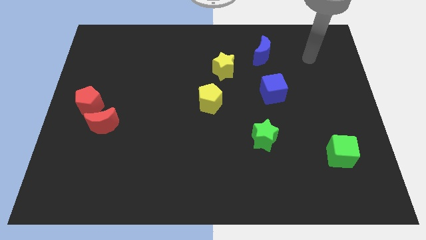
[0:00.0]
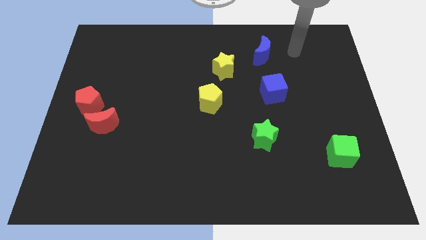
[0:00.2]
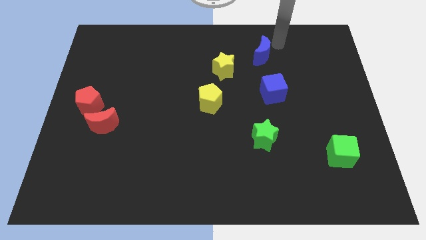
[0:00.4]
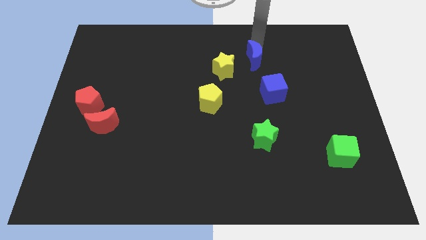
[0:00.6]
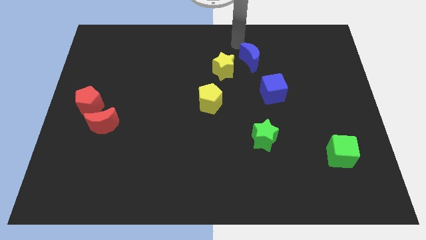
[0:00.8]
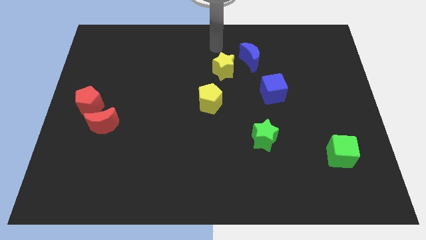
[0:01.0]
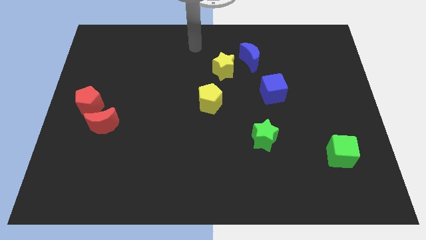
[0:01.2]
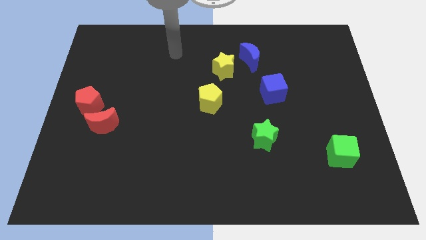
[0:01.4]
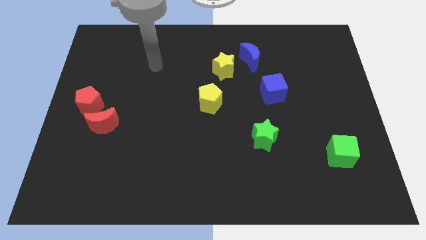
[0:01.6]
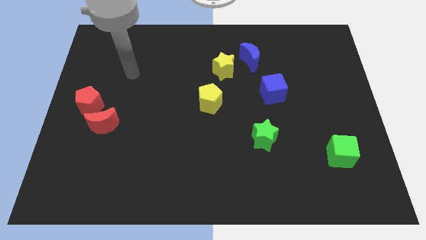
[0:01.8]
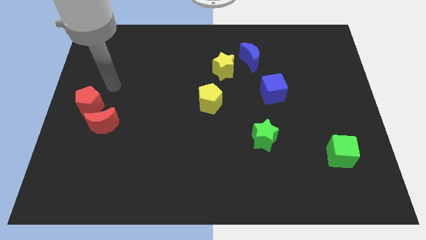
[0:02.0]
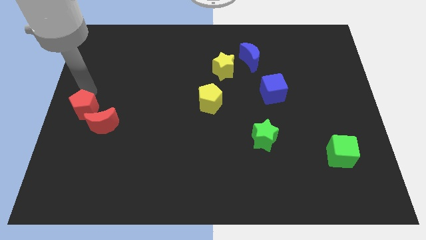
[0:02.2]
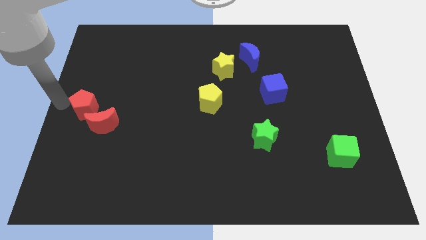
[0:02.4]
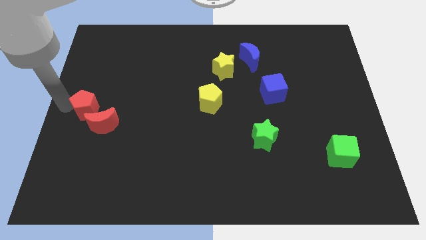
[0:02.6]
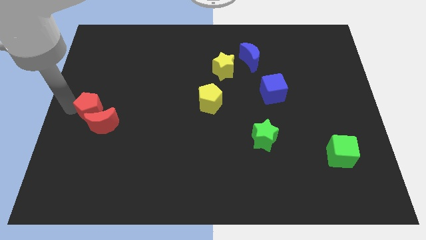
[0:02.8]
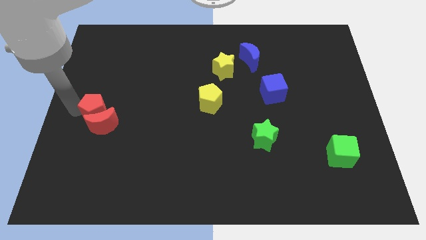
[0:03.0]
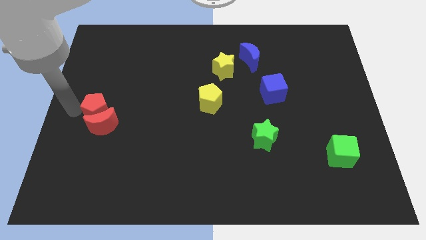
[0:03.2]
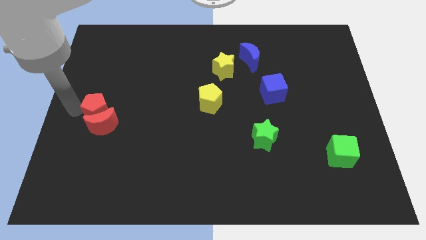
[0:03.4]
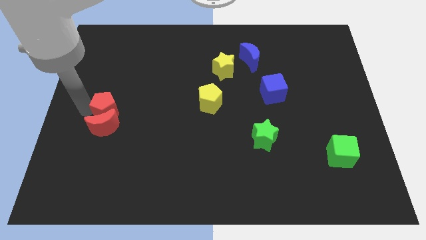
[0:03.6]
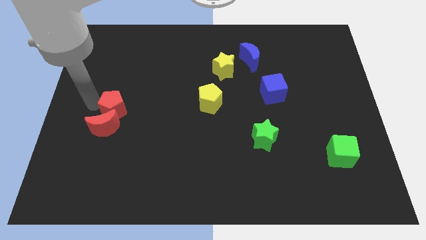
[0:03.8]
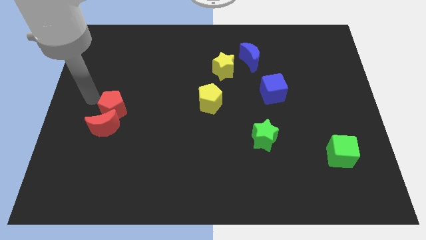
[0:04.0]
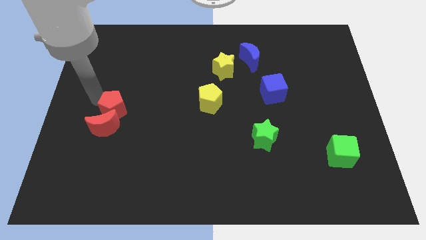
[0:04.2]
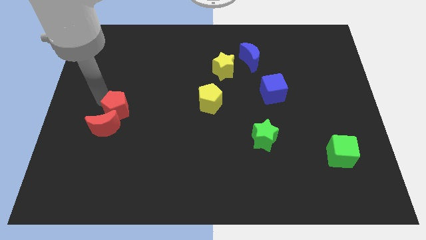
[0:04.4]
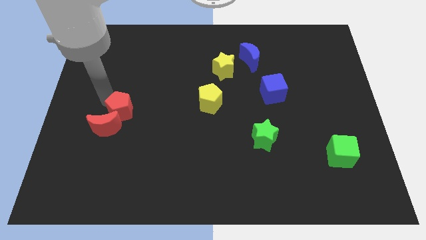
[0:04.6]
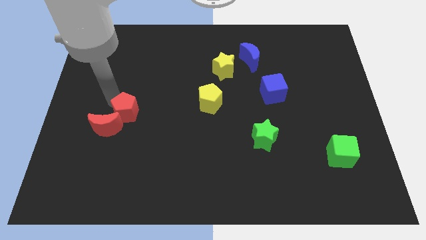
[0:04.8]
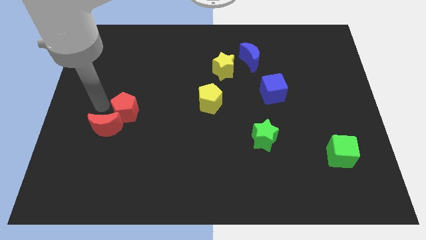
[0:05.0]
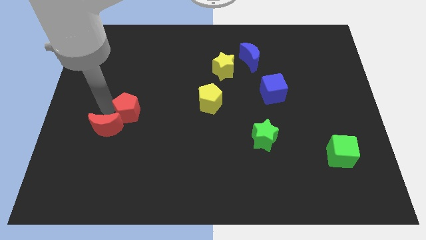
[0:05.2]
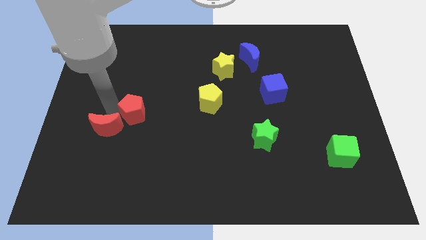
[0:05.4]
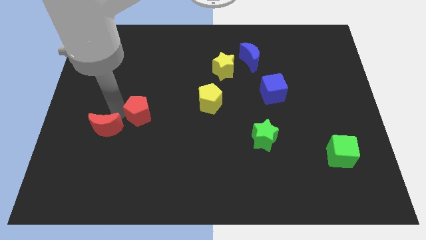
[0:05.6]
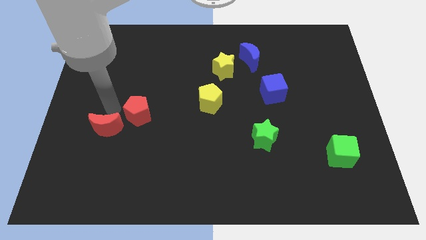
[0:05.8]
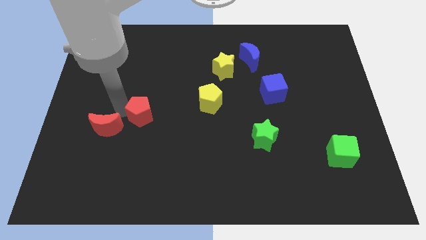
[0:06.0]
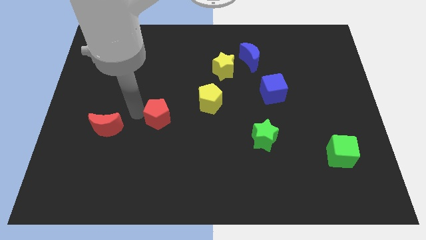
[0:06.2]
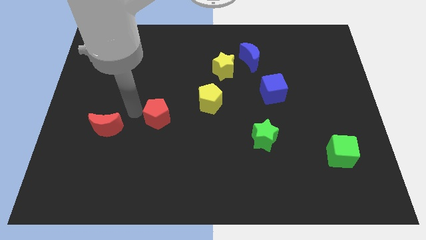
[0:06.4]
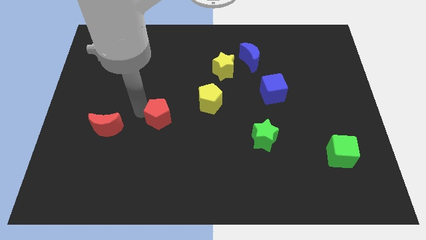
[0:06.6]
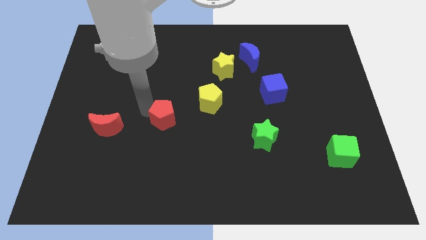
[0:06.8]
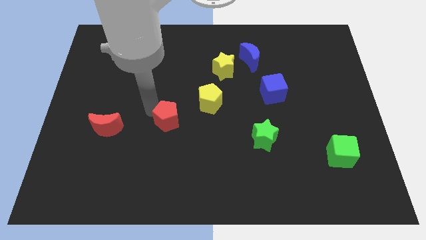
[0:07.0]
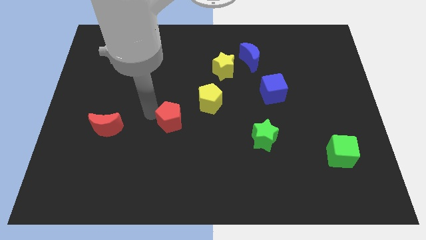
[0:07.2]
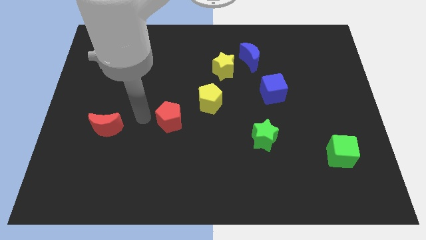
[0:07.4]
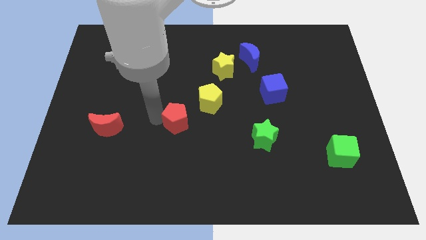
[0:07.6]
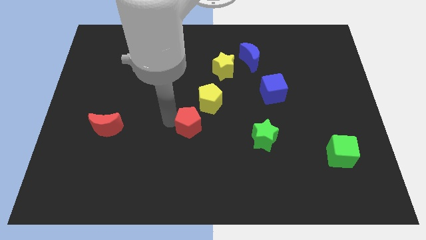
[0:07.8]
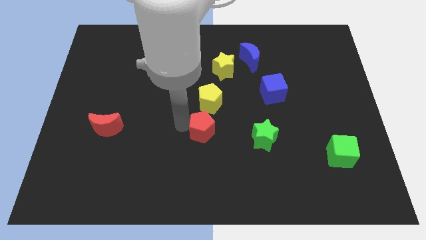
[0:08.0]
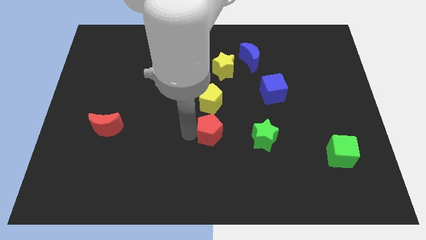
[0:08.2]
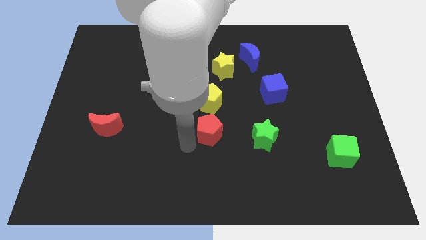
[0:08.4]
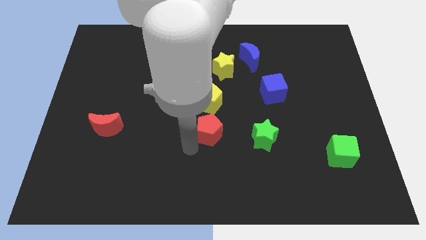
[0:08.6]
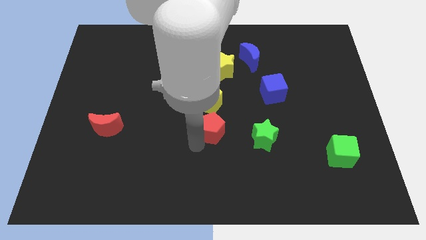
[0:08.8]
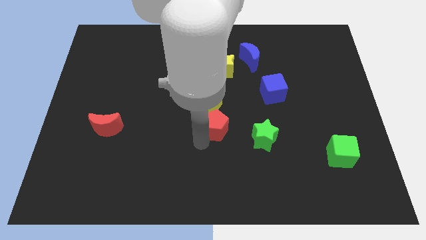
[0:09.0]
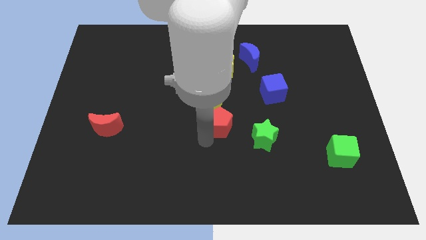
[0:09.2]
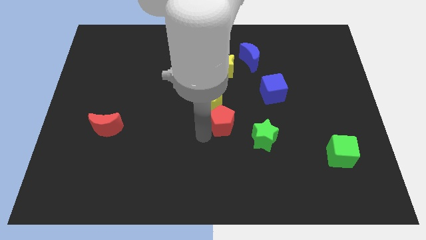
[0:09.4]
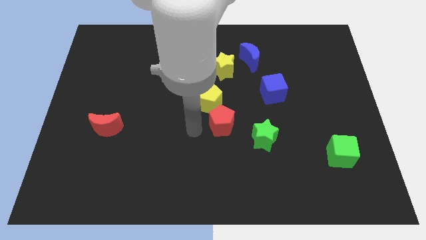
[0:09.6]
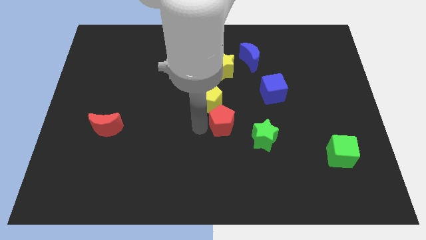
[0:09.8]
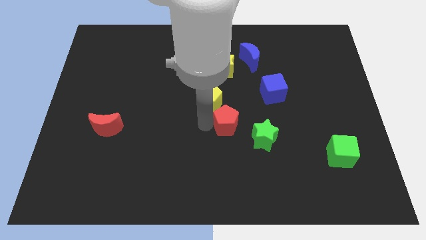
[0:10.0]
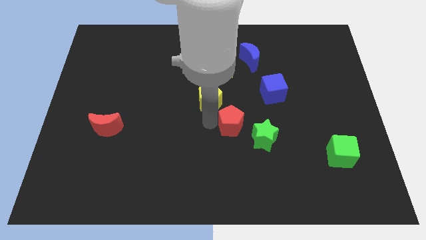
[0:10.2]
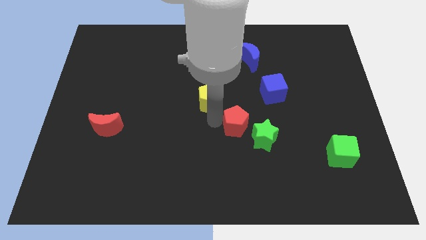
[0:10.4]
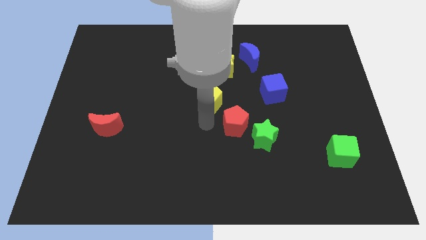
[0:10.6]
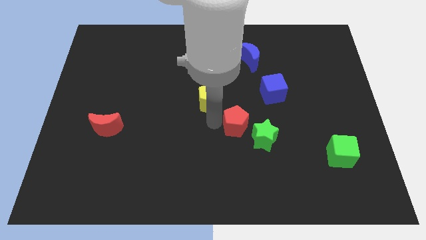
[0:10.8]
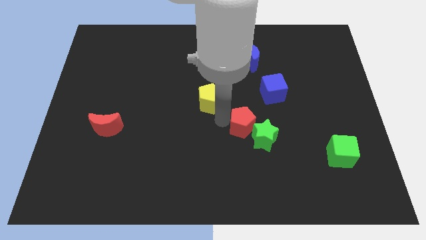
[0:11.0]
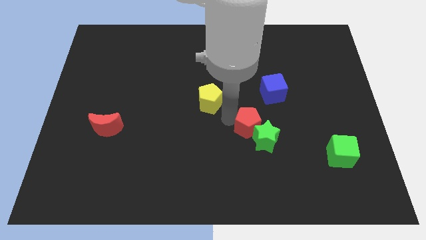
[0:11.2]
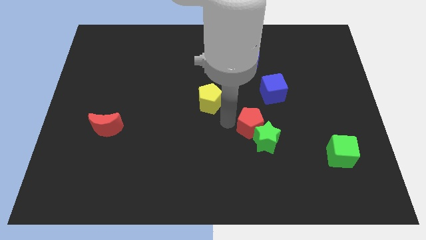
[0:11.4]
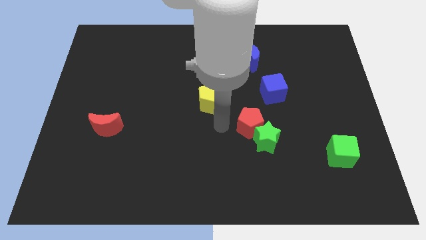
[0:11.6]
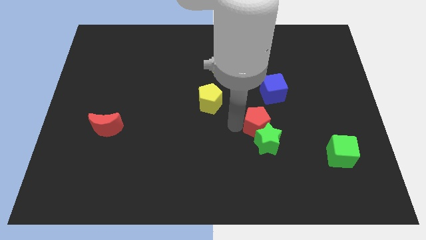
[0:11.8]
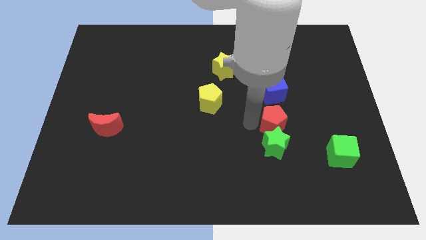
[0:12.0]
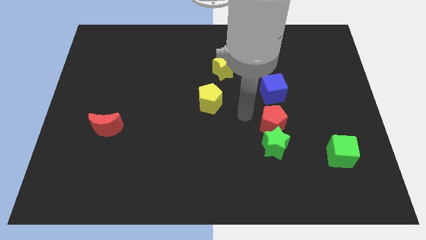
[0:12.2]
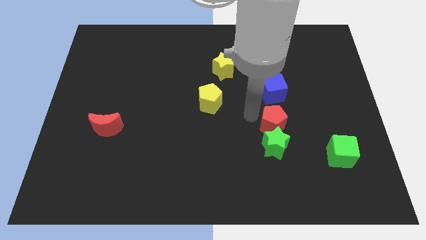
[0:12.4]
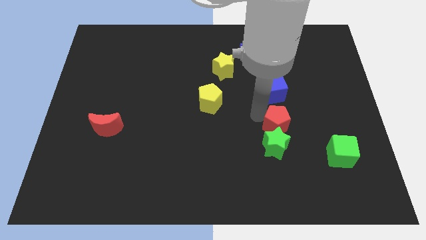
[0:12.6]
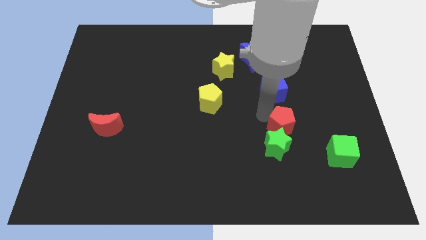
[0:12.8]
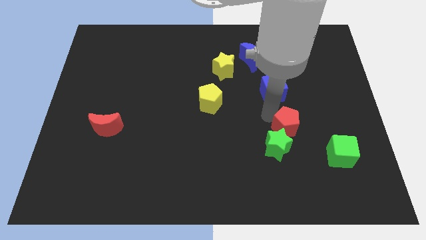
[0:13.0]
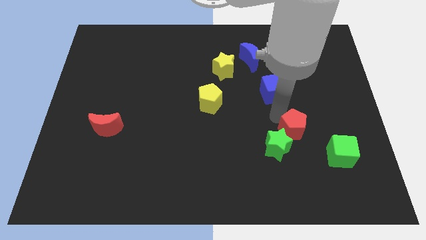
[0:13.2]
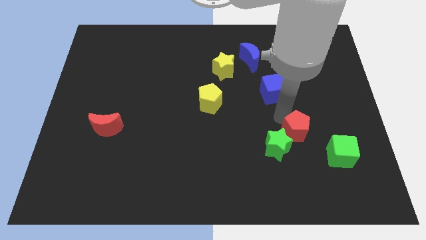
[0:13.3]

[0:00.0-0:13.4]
push the red pentagon right of the green star
